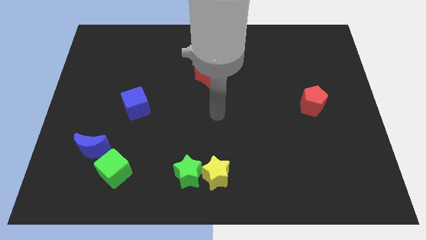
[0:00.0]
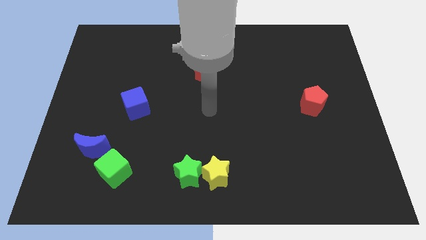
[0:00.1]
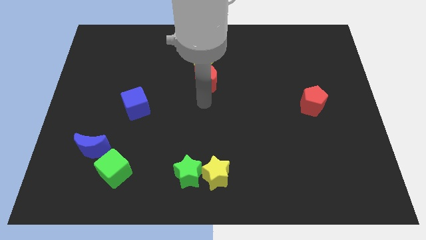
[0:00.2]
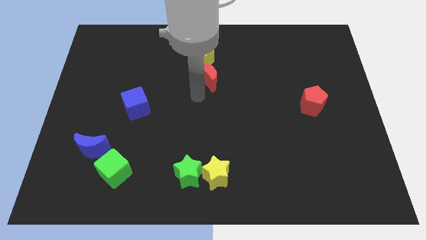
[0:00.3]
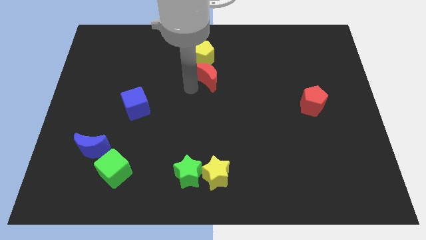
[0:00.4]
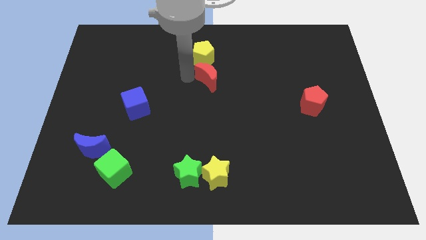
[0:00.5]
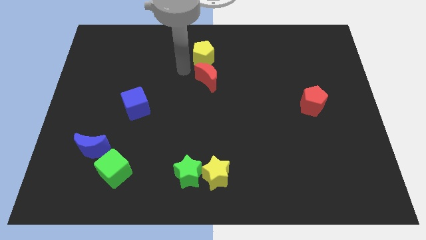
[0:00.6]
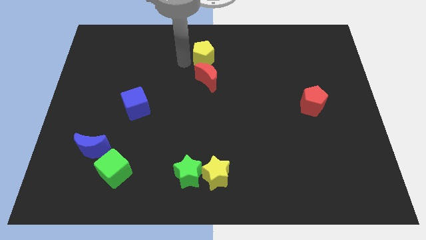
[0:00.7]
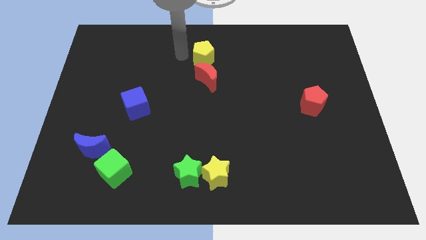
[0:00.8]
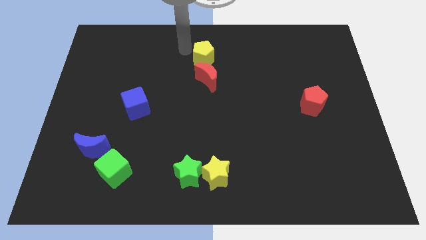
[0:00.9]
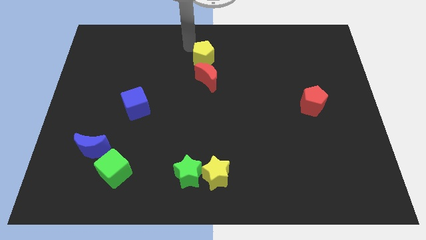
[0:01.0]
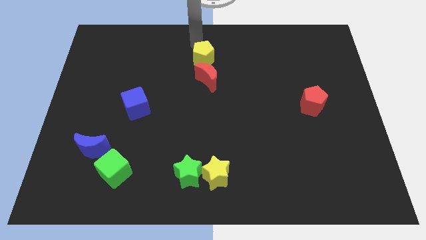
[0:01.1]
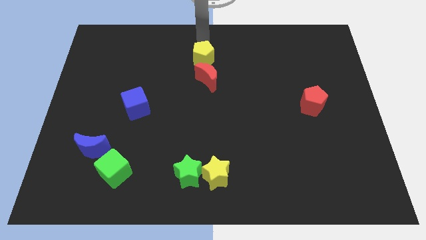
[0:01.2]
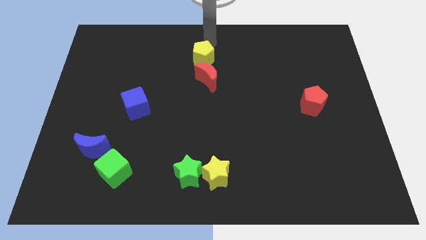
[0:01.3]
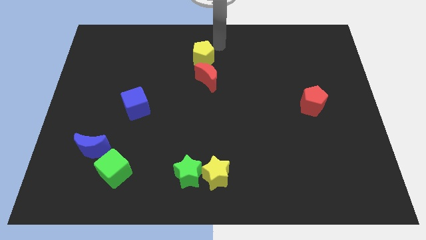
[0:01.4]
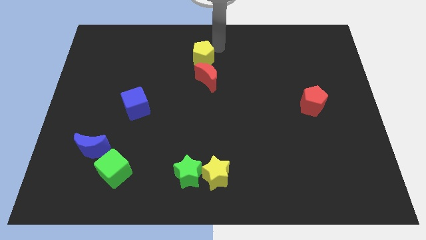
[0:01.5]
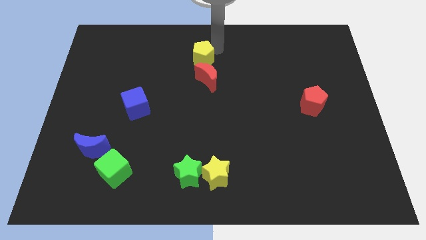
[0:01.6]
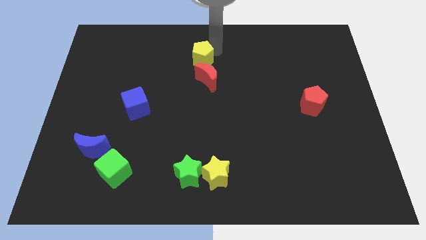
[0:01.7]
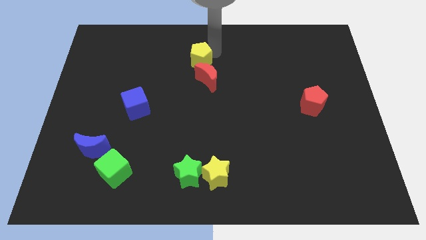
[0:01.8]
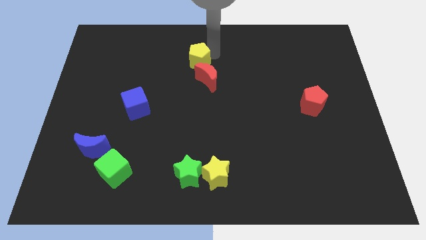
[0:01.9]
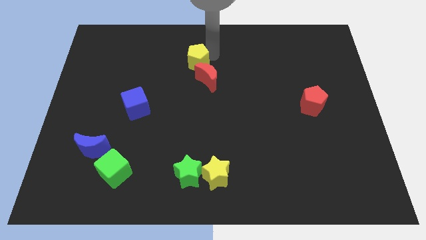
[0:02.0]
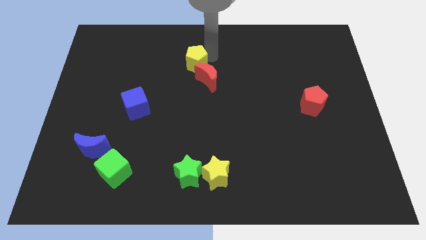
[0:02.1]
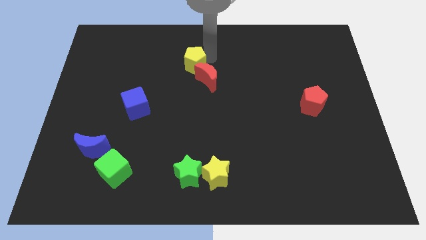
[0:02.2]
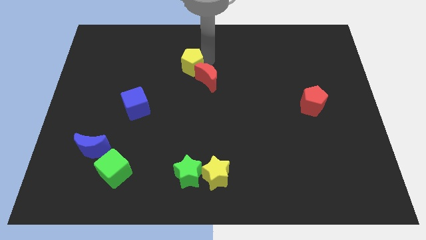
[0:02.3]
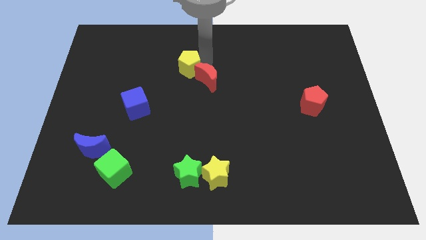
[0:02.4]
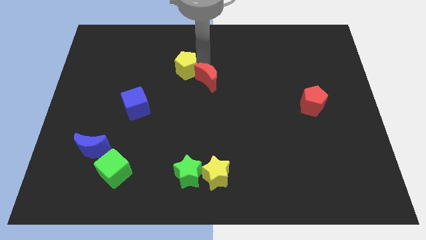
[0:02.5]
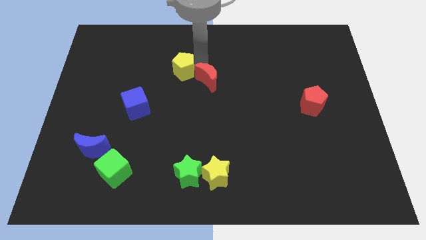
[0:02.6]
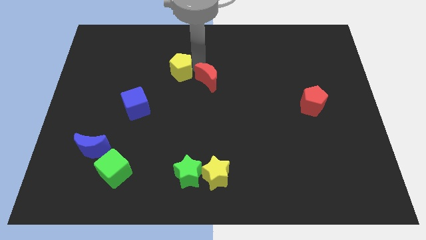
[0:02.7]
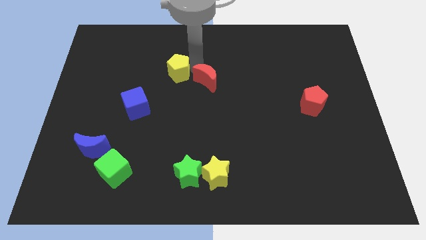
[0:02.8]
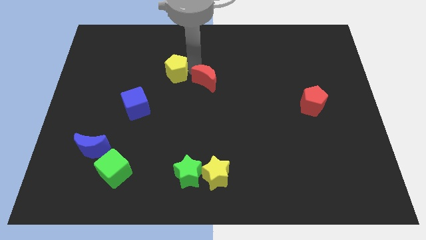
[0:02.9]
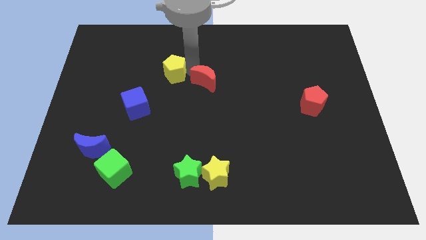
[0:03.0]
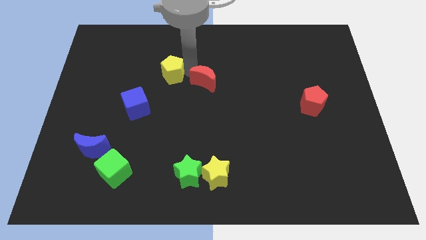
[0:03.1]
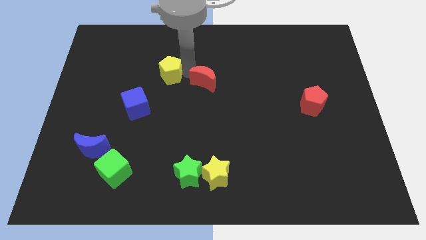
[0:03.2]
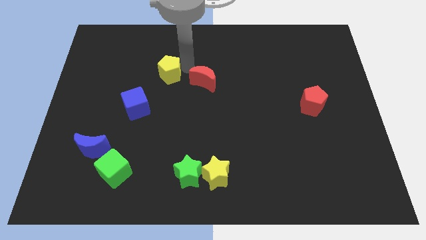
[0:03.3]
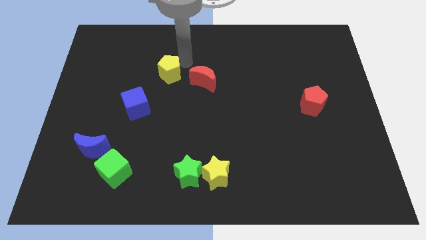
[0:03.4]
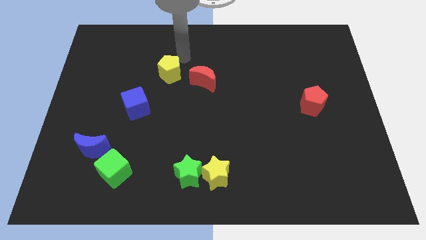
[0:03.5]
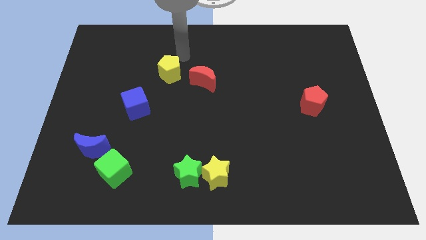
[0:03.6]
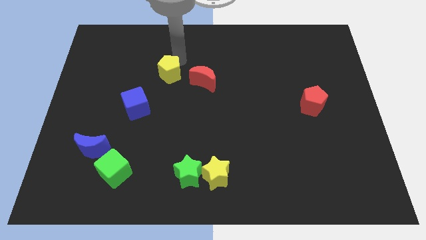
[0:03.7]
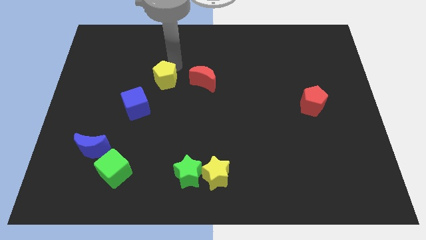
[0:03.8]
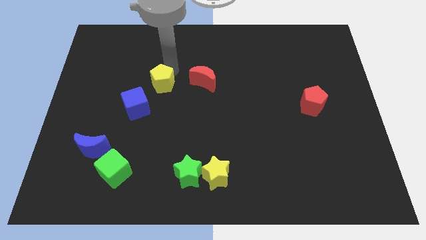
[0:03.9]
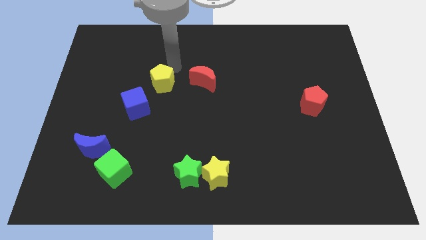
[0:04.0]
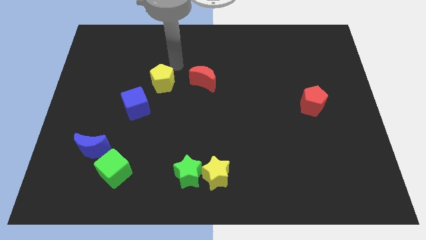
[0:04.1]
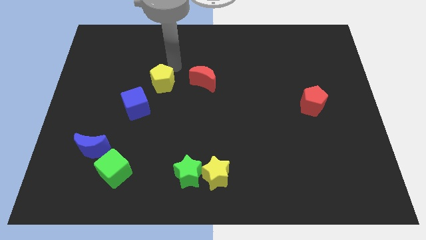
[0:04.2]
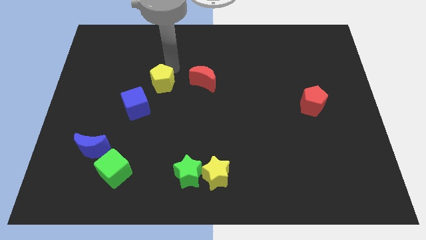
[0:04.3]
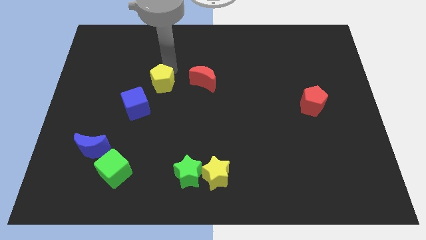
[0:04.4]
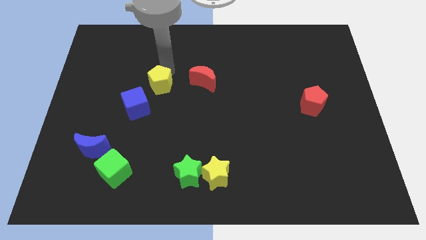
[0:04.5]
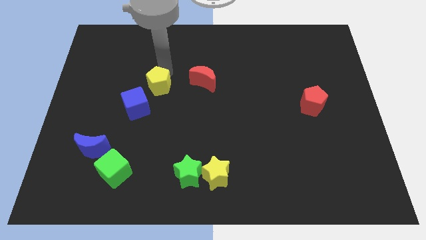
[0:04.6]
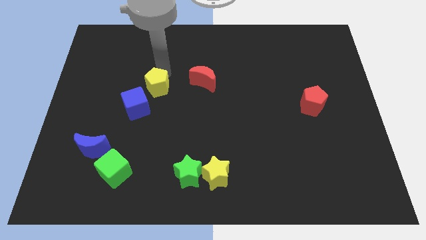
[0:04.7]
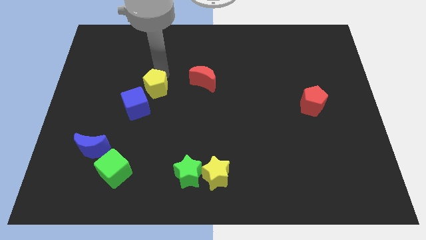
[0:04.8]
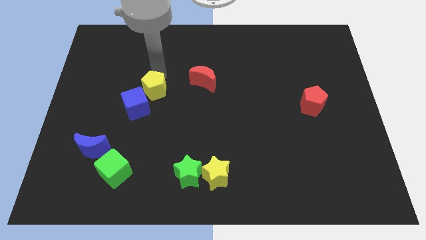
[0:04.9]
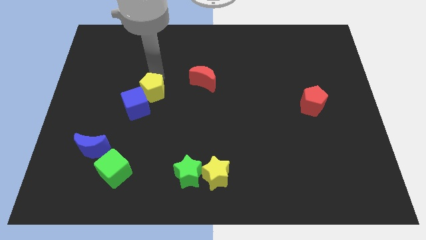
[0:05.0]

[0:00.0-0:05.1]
put the yellow pentagon next to the blue cube

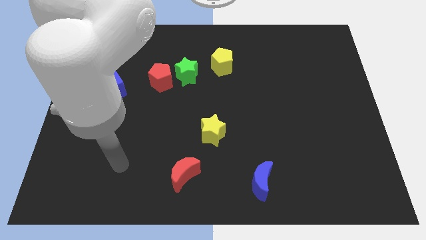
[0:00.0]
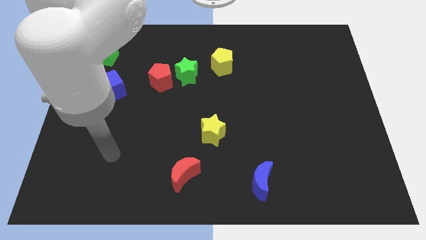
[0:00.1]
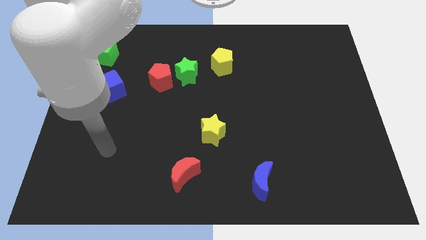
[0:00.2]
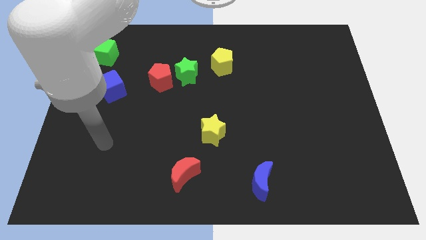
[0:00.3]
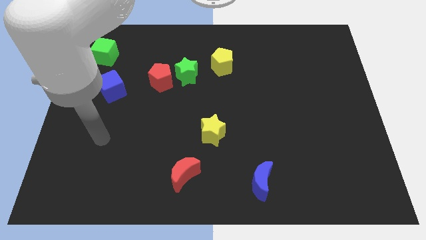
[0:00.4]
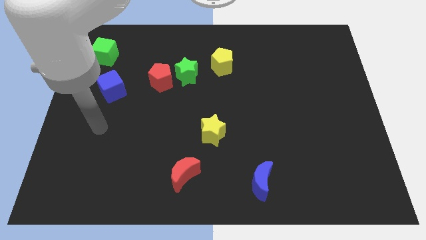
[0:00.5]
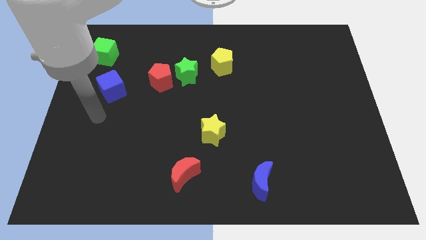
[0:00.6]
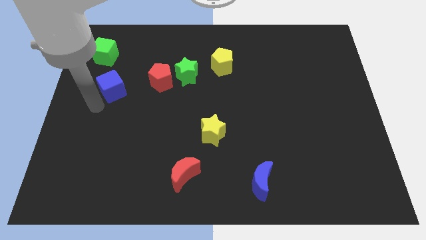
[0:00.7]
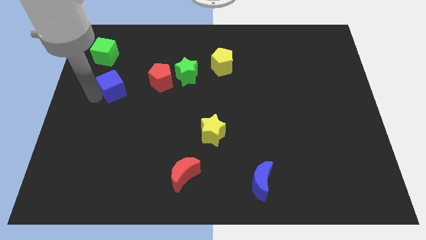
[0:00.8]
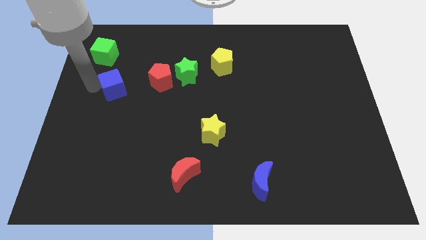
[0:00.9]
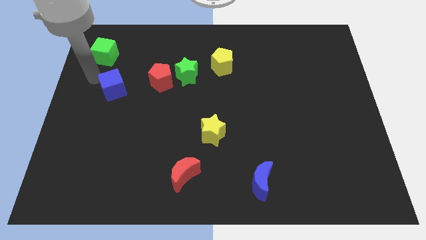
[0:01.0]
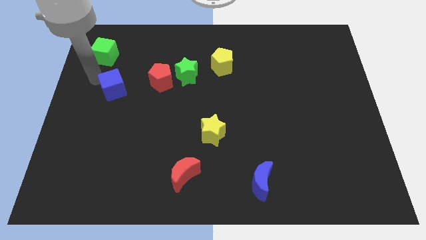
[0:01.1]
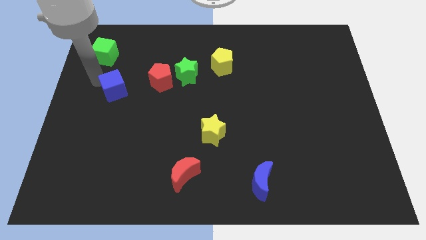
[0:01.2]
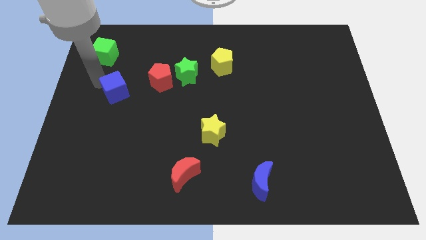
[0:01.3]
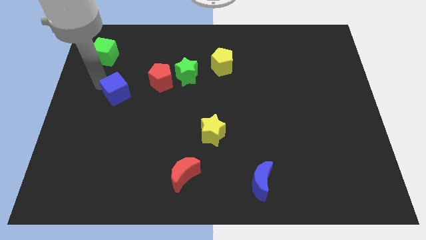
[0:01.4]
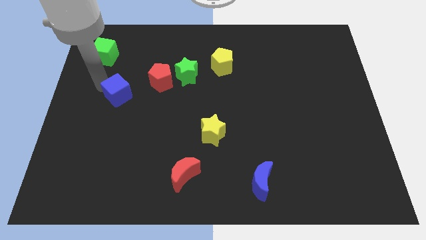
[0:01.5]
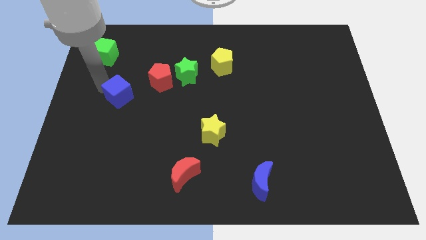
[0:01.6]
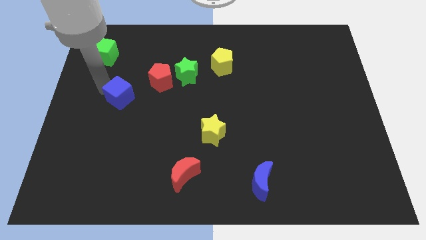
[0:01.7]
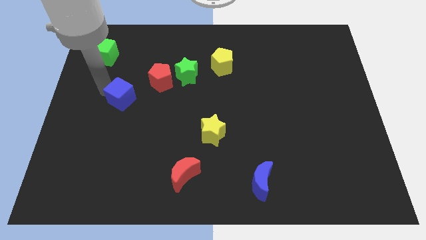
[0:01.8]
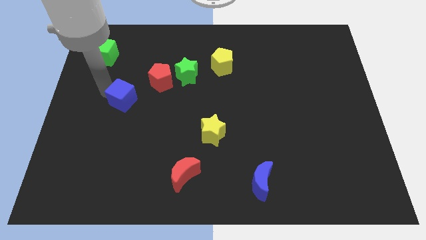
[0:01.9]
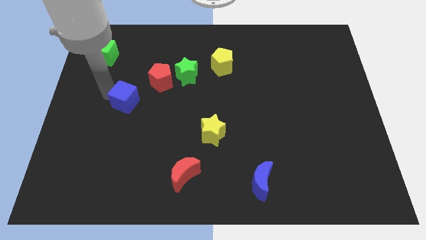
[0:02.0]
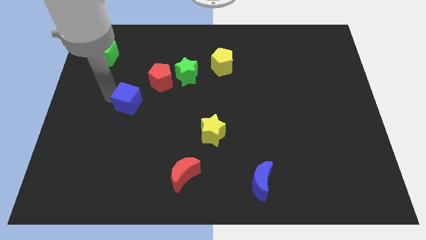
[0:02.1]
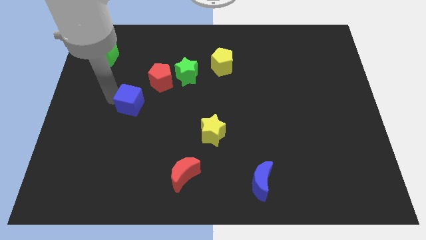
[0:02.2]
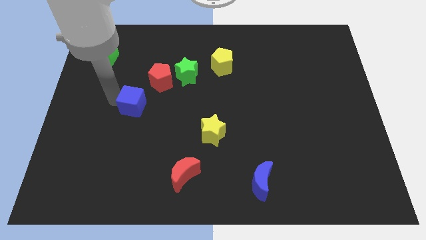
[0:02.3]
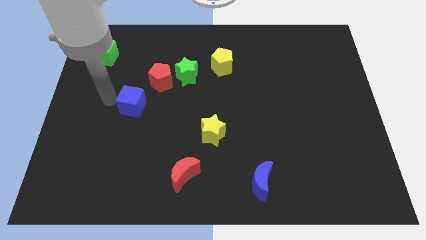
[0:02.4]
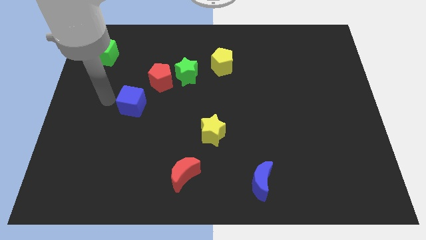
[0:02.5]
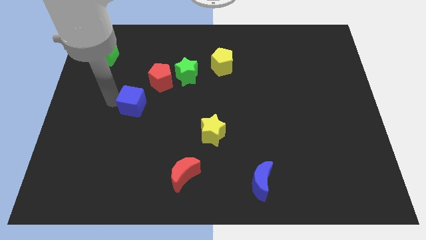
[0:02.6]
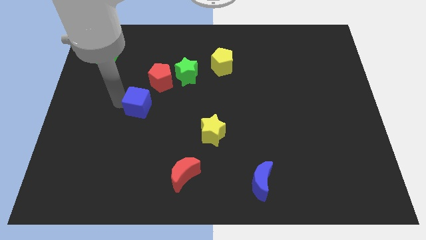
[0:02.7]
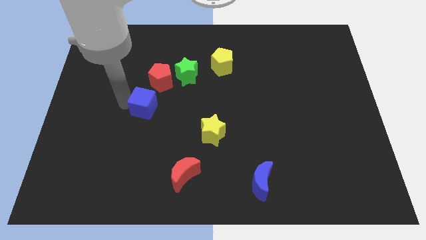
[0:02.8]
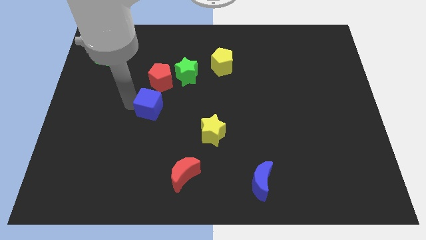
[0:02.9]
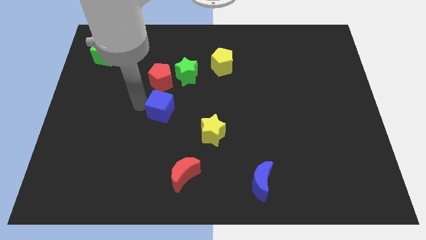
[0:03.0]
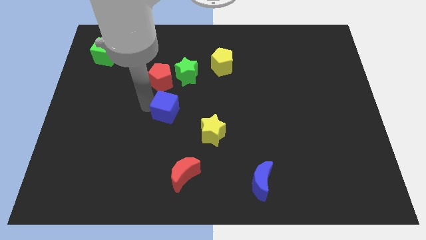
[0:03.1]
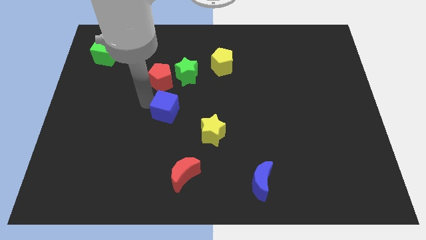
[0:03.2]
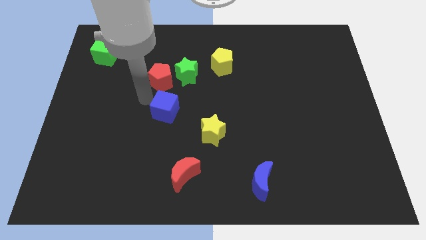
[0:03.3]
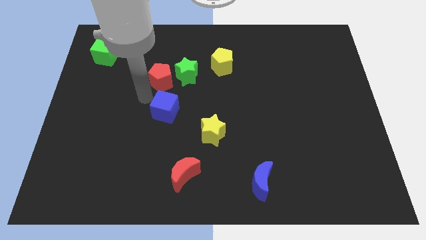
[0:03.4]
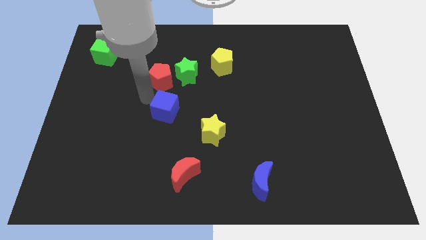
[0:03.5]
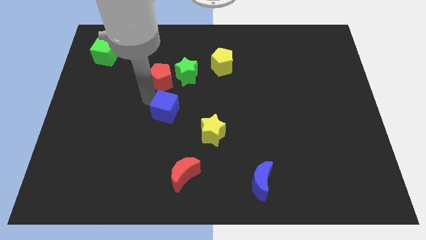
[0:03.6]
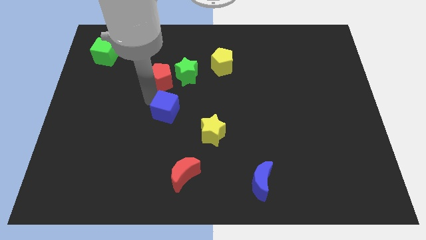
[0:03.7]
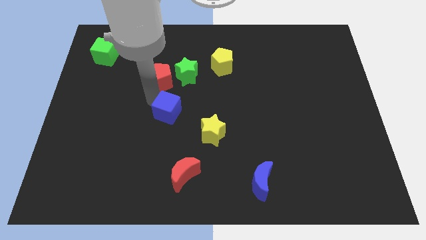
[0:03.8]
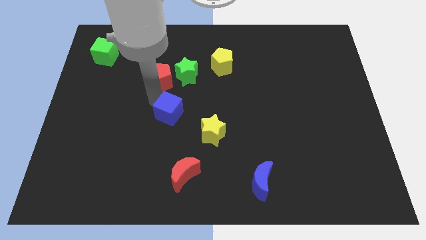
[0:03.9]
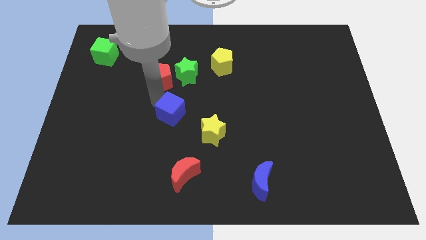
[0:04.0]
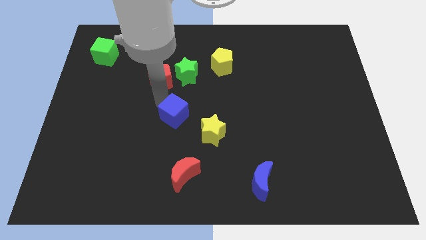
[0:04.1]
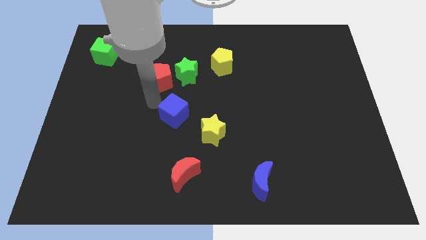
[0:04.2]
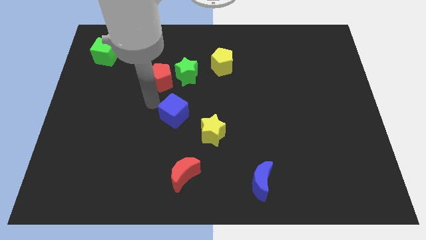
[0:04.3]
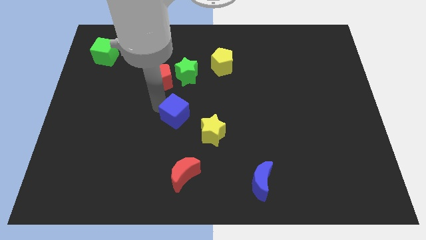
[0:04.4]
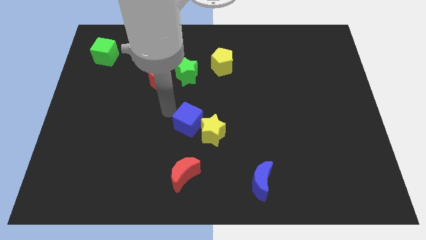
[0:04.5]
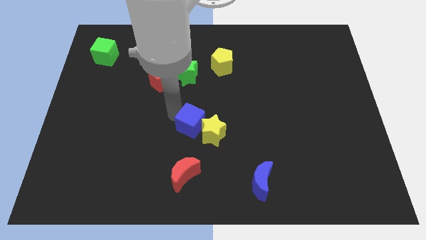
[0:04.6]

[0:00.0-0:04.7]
push the blue cube next to the yellow star
